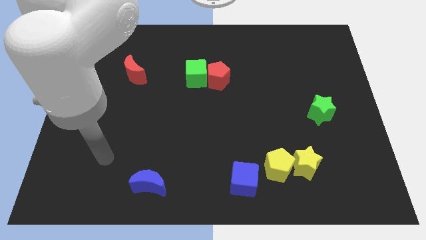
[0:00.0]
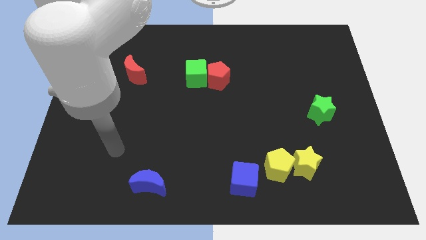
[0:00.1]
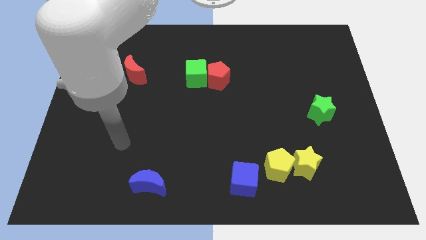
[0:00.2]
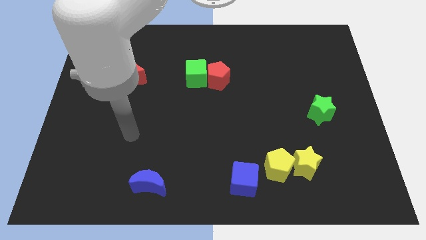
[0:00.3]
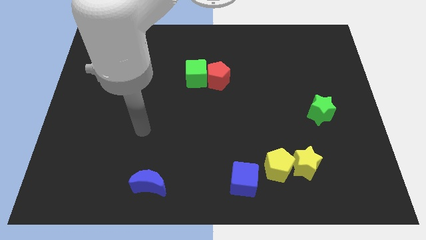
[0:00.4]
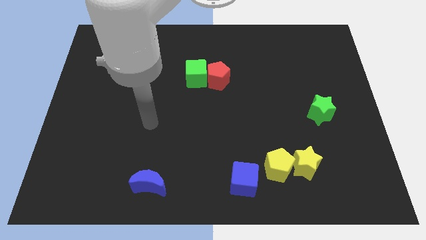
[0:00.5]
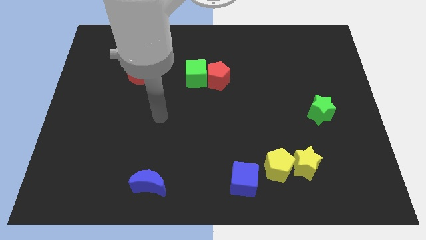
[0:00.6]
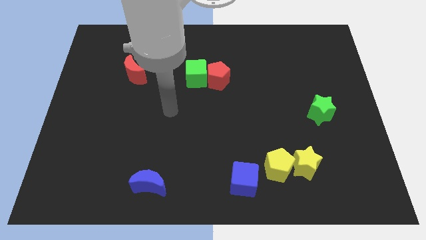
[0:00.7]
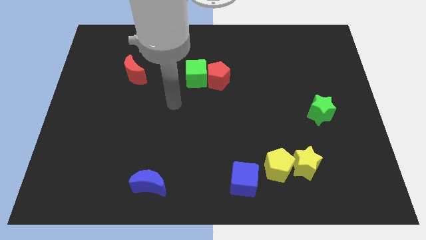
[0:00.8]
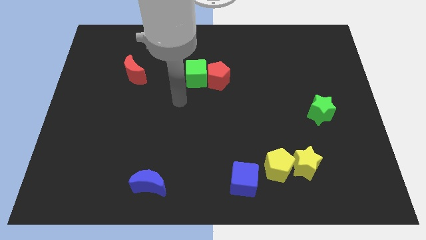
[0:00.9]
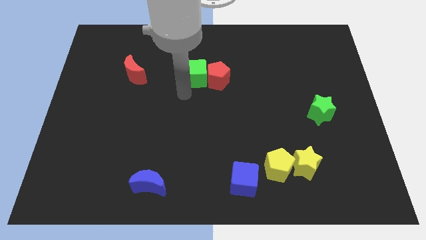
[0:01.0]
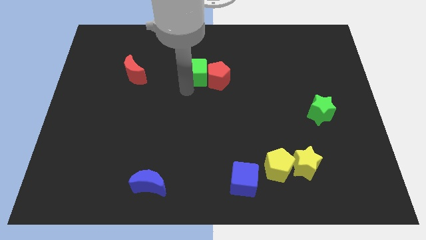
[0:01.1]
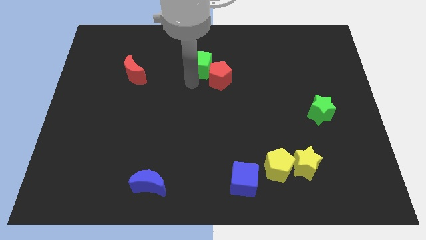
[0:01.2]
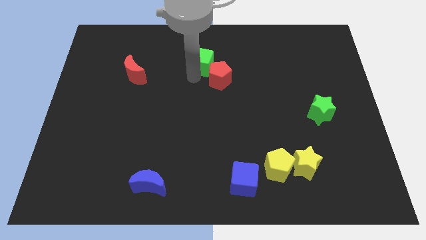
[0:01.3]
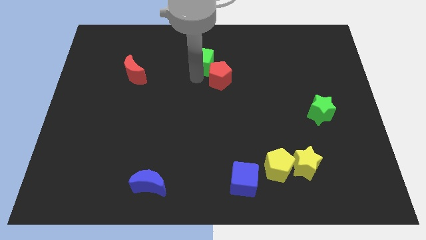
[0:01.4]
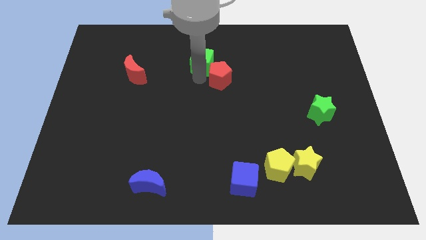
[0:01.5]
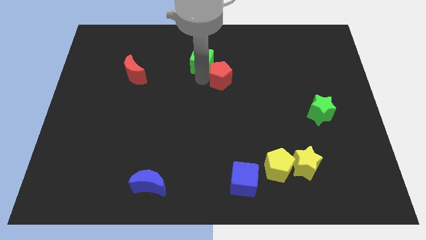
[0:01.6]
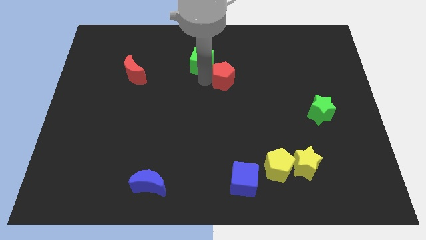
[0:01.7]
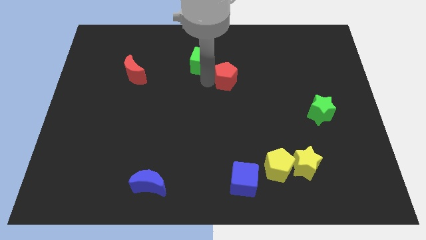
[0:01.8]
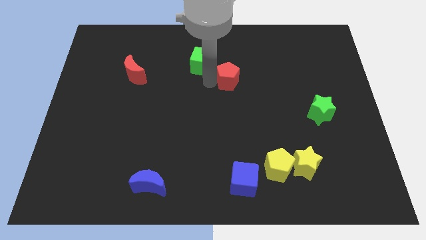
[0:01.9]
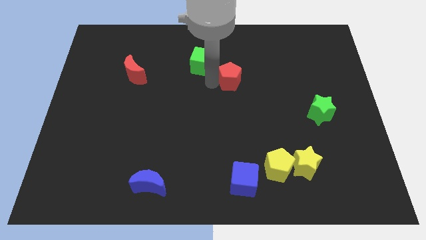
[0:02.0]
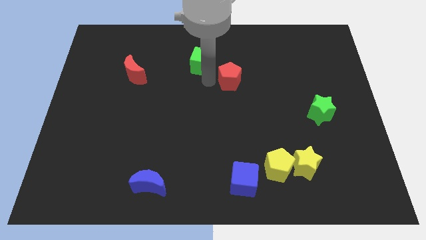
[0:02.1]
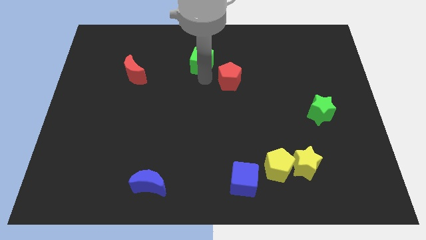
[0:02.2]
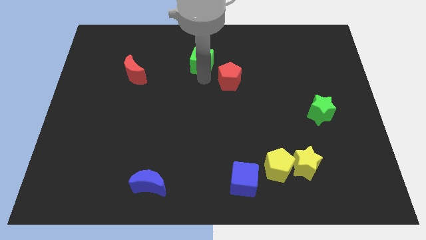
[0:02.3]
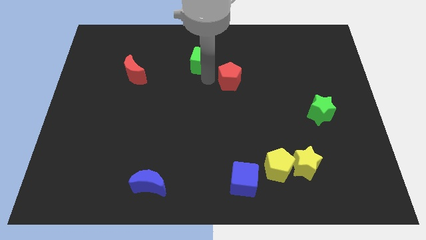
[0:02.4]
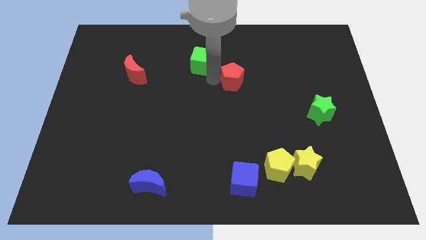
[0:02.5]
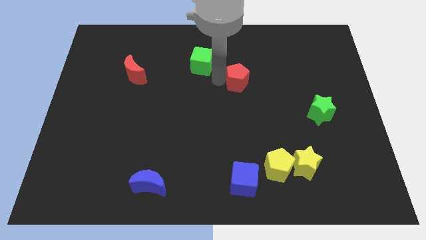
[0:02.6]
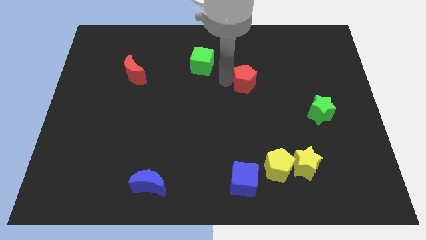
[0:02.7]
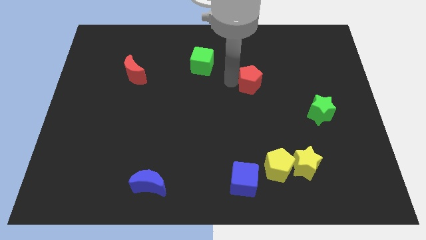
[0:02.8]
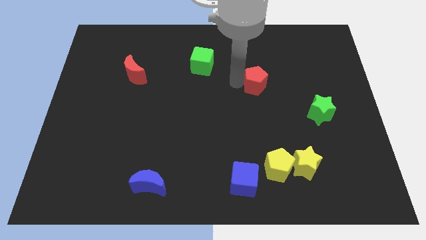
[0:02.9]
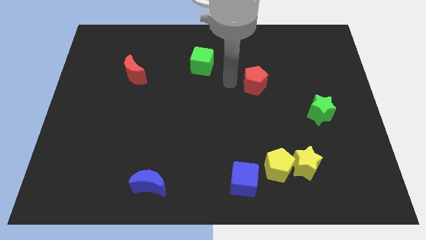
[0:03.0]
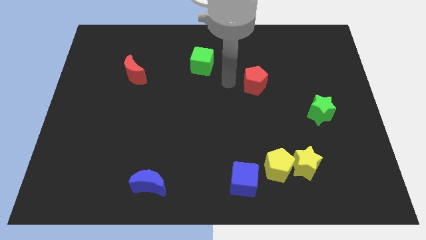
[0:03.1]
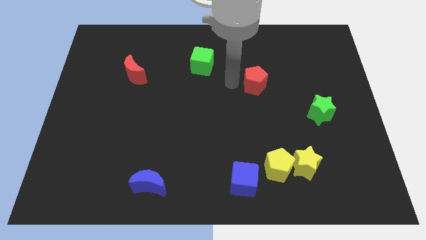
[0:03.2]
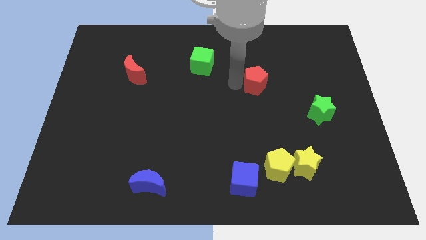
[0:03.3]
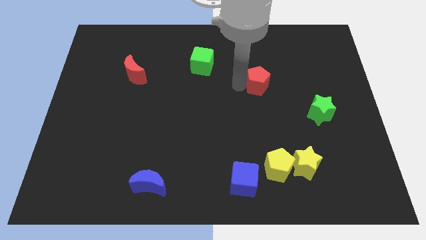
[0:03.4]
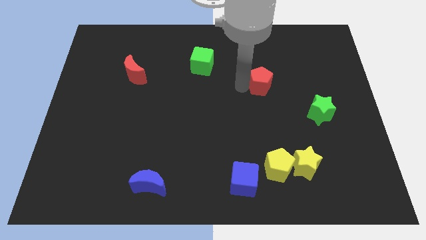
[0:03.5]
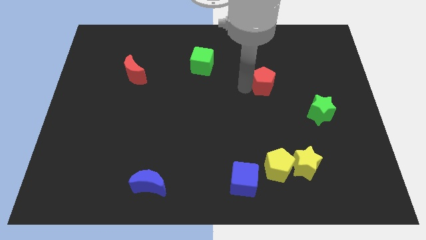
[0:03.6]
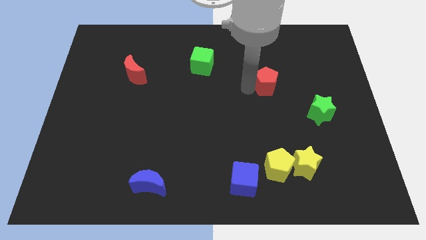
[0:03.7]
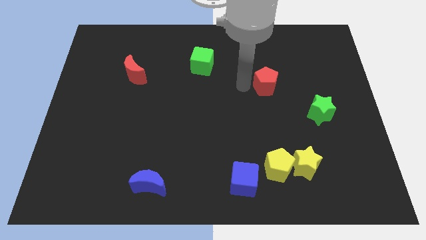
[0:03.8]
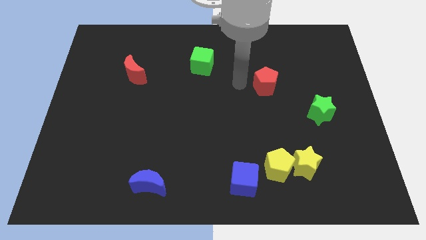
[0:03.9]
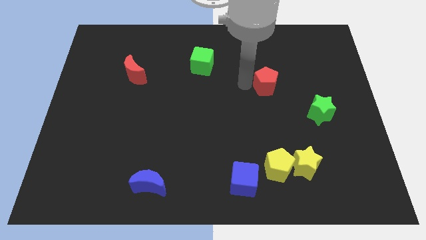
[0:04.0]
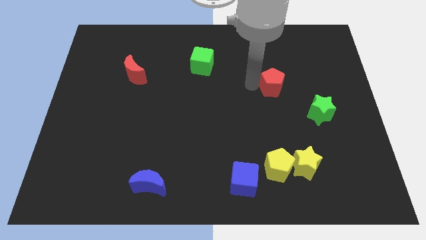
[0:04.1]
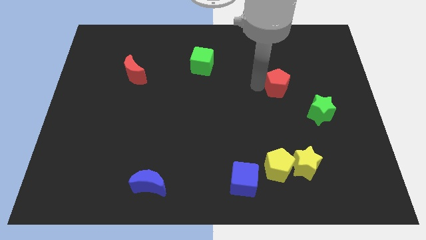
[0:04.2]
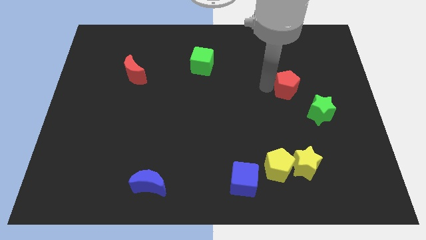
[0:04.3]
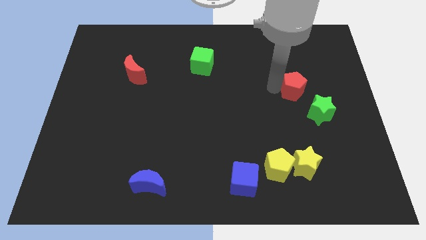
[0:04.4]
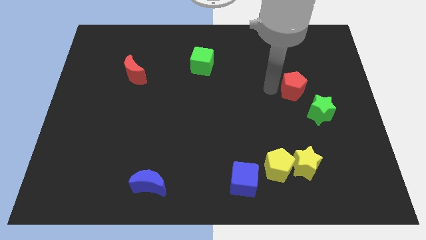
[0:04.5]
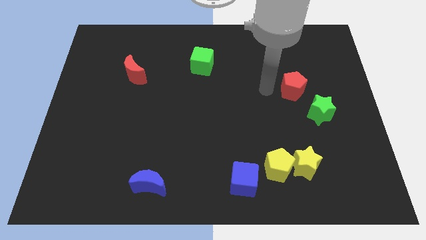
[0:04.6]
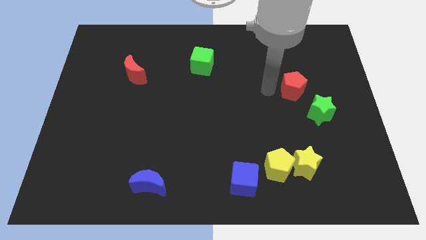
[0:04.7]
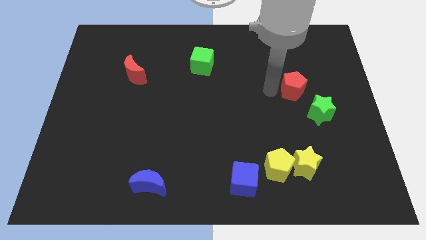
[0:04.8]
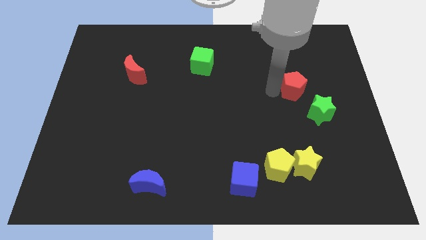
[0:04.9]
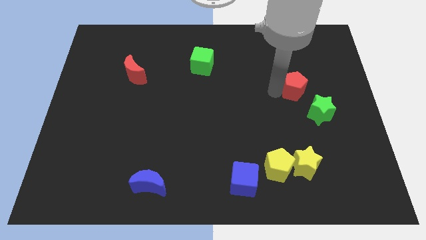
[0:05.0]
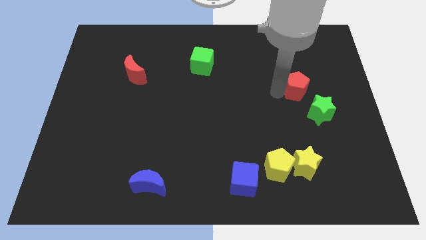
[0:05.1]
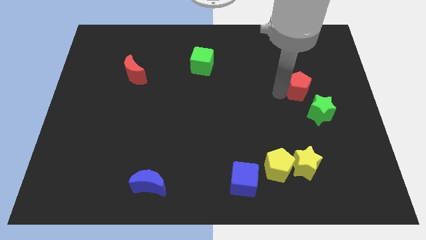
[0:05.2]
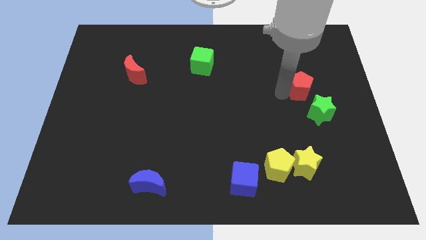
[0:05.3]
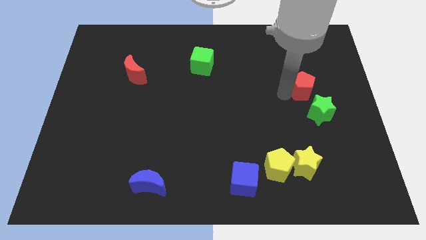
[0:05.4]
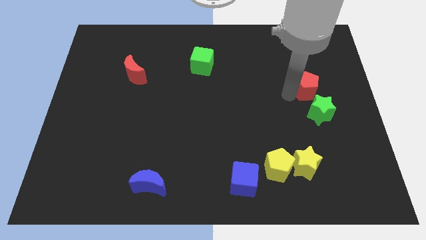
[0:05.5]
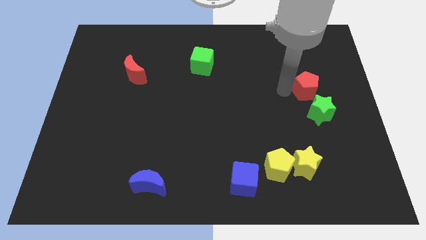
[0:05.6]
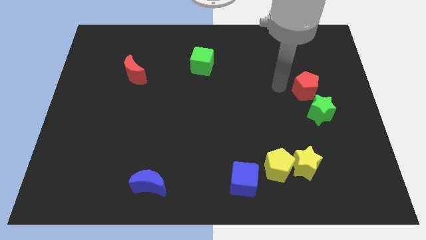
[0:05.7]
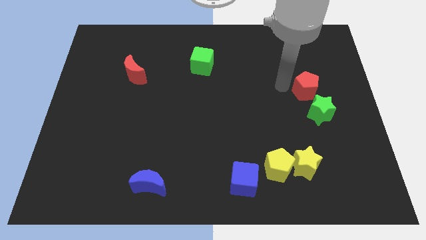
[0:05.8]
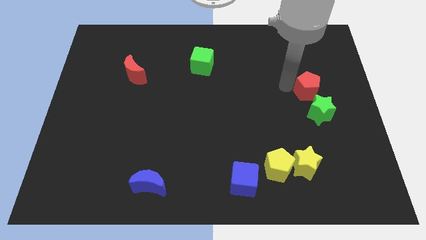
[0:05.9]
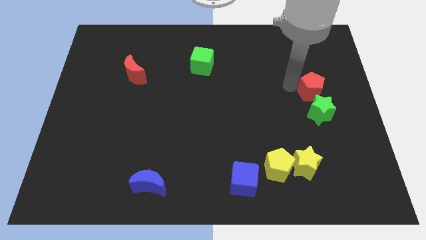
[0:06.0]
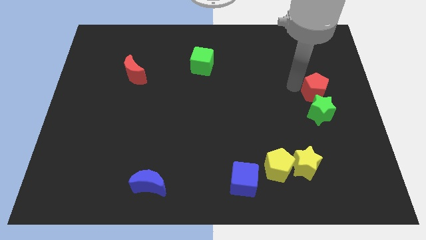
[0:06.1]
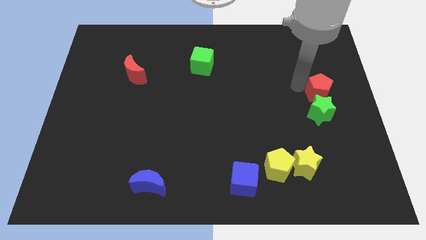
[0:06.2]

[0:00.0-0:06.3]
push the red pentagon to the center right
